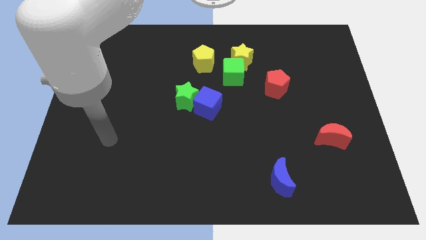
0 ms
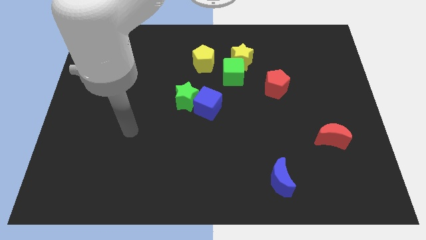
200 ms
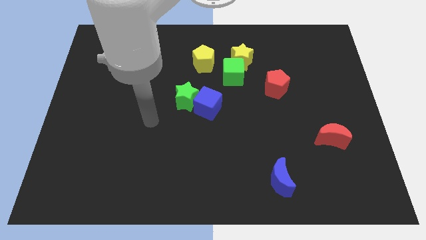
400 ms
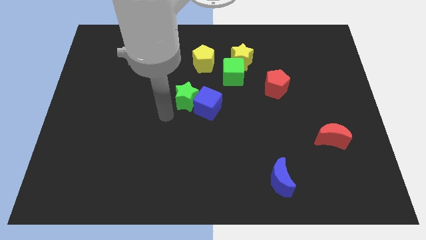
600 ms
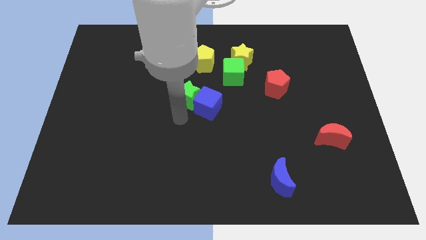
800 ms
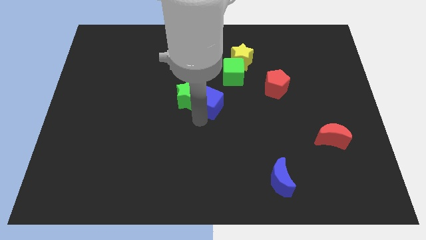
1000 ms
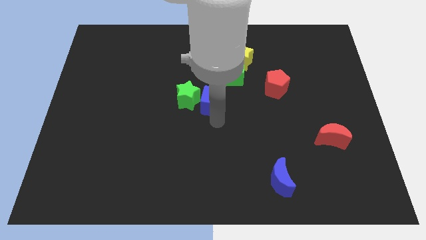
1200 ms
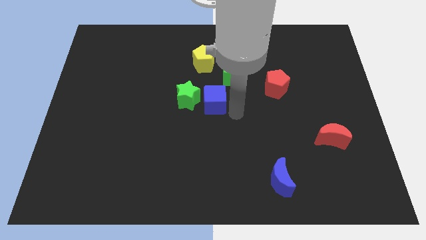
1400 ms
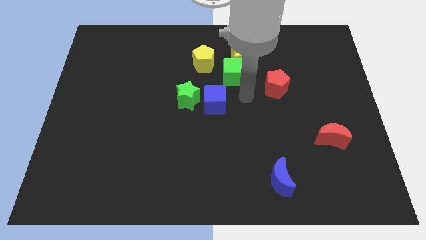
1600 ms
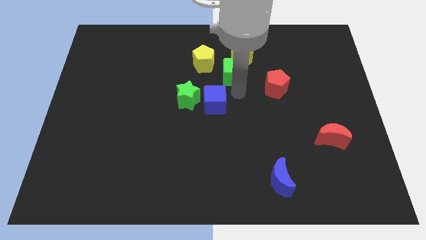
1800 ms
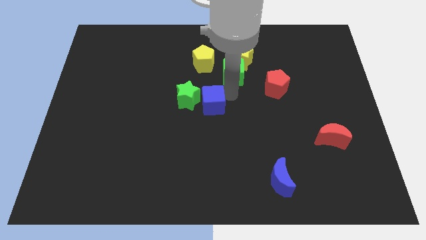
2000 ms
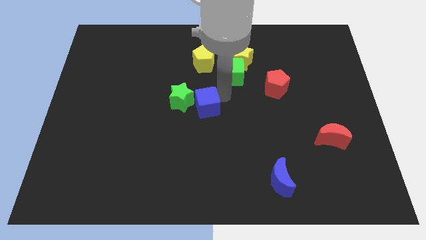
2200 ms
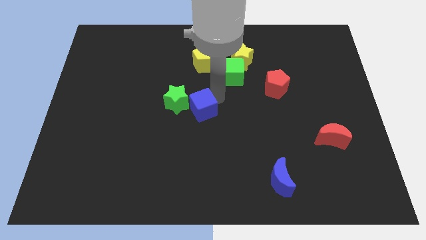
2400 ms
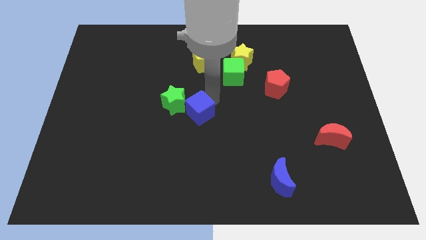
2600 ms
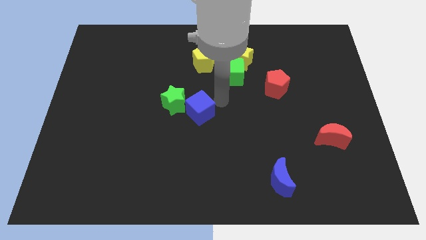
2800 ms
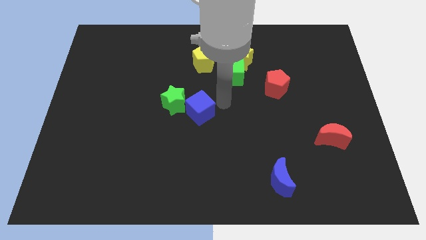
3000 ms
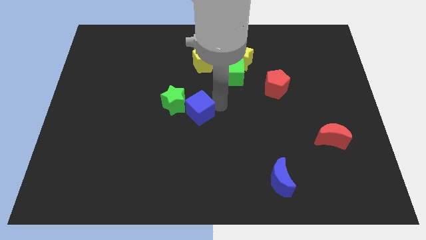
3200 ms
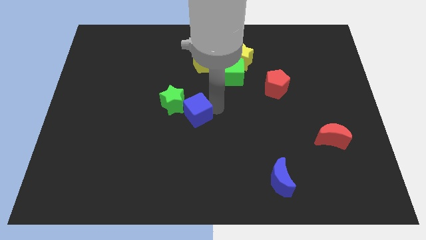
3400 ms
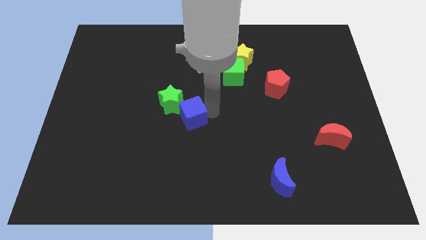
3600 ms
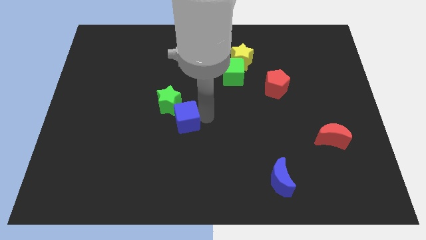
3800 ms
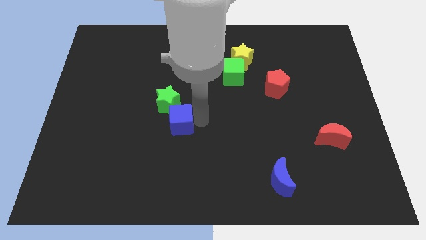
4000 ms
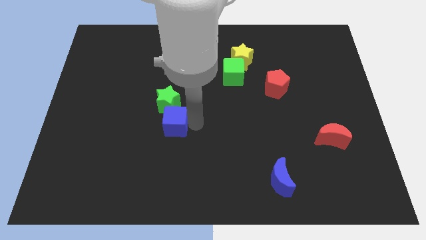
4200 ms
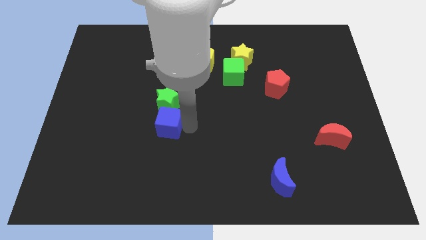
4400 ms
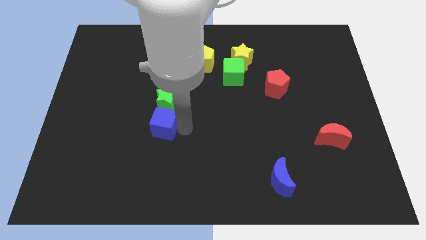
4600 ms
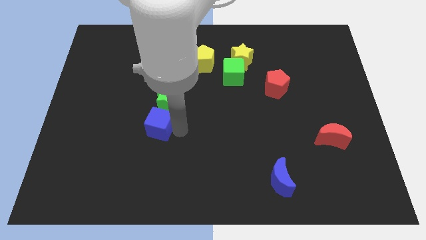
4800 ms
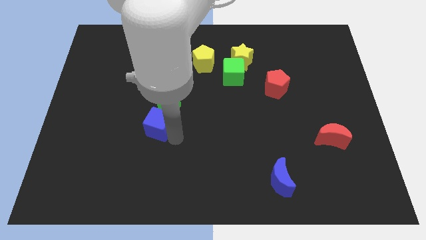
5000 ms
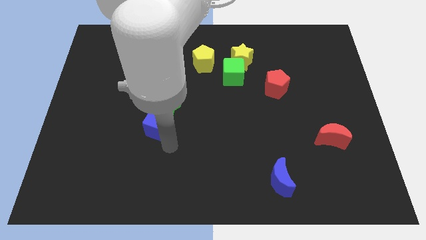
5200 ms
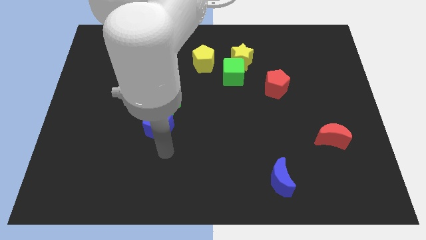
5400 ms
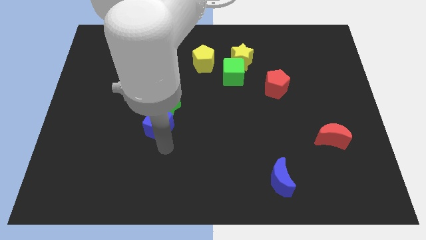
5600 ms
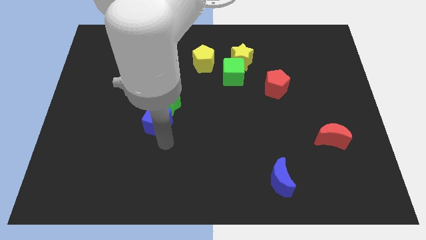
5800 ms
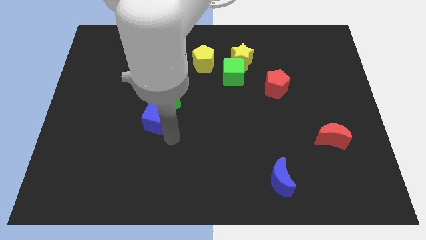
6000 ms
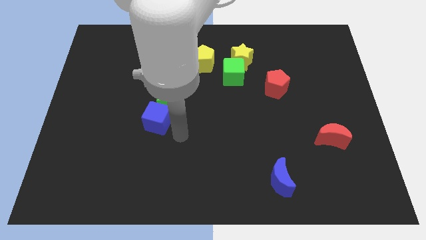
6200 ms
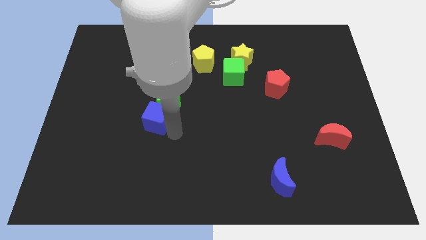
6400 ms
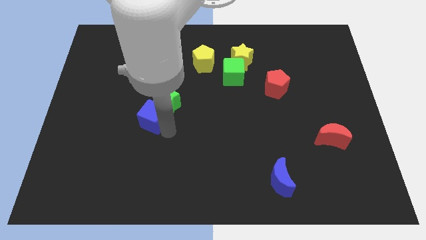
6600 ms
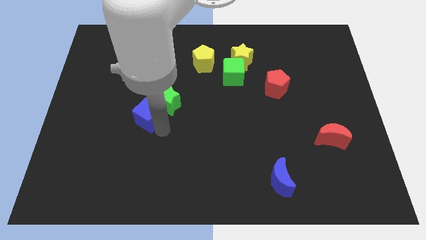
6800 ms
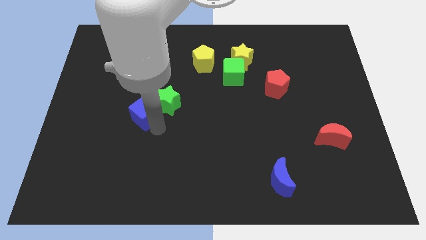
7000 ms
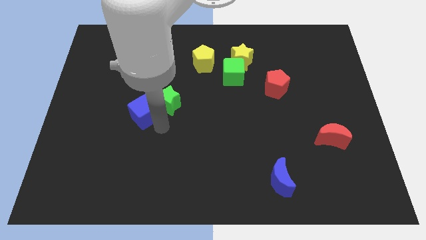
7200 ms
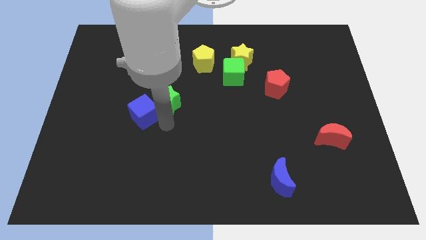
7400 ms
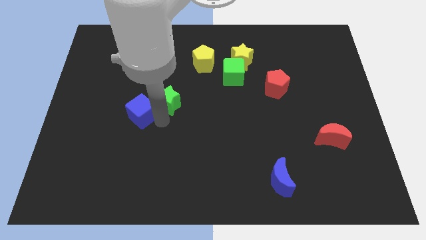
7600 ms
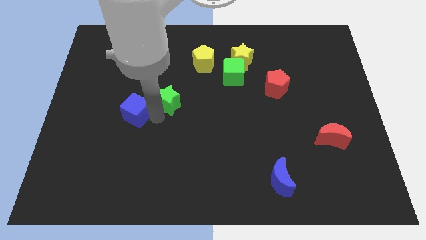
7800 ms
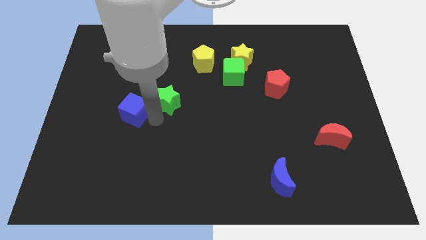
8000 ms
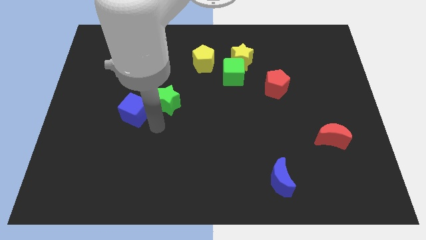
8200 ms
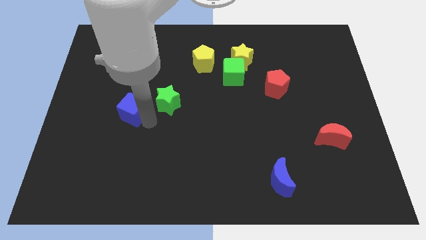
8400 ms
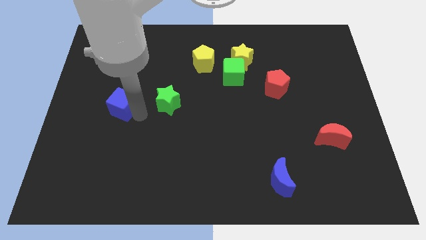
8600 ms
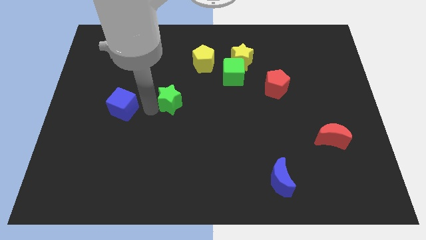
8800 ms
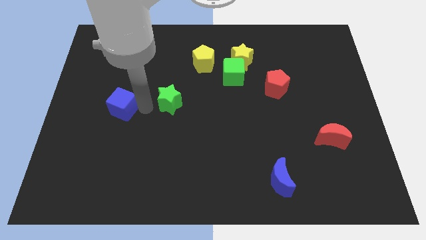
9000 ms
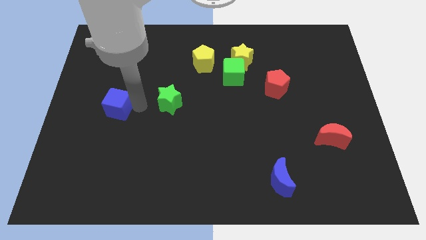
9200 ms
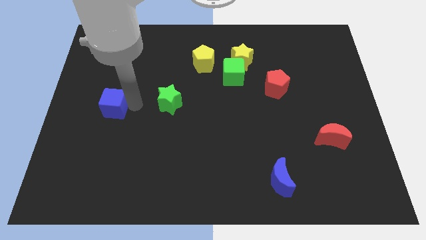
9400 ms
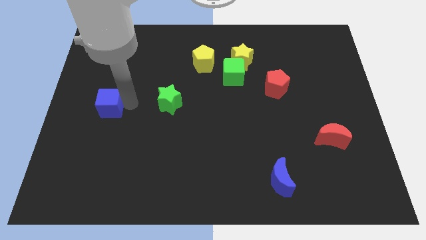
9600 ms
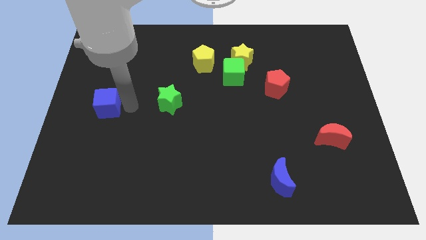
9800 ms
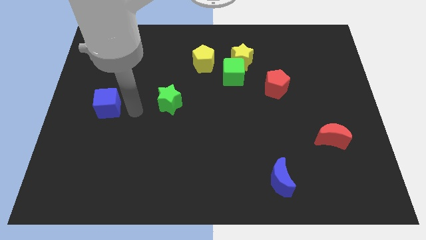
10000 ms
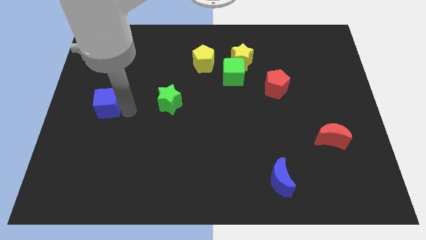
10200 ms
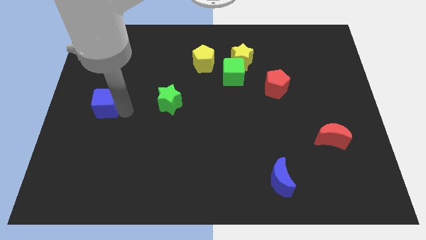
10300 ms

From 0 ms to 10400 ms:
put the blue cube to the center left

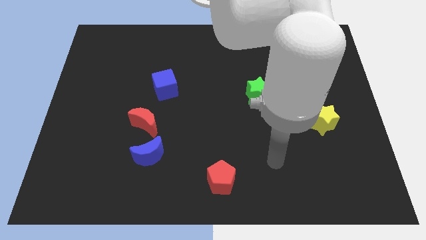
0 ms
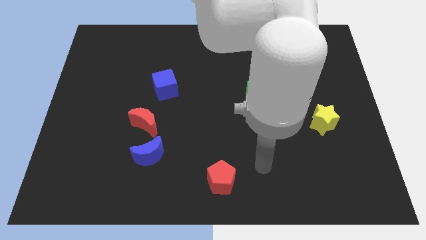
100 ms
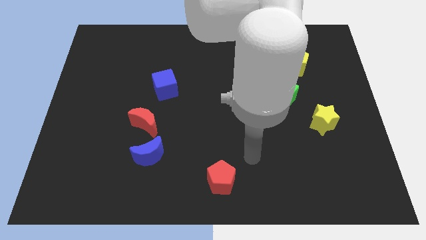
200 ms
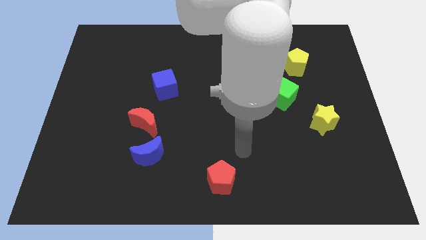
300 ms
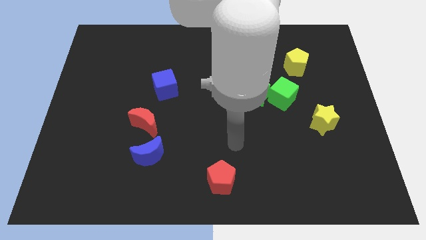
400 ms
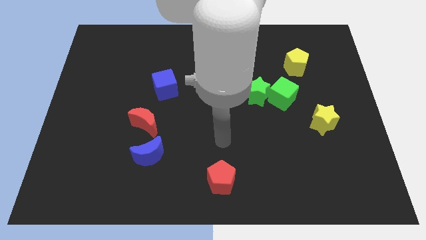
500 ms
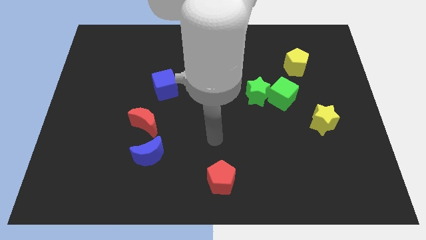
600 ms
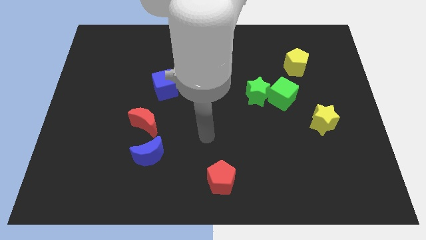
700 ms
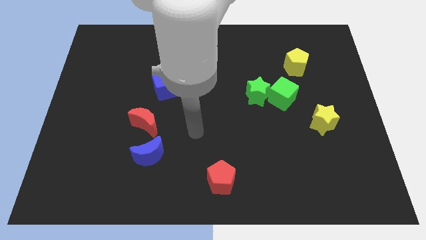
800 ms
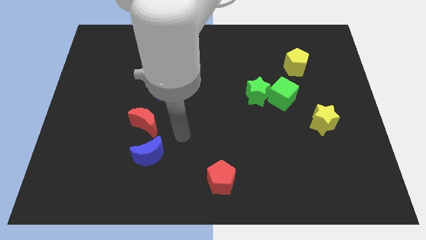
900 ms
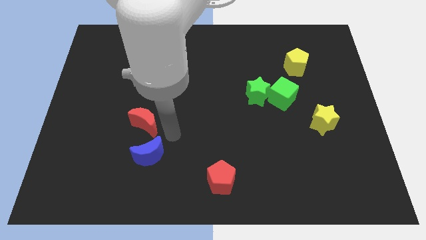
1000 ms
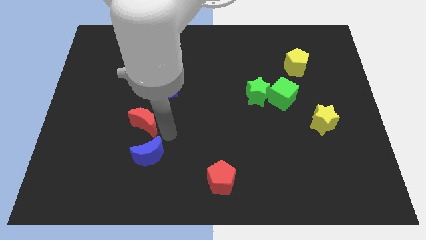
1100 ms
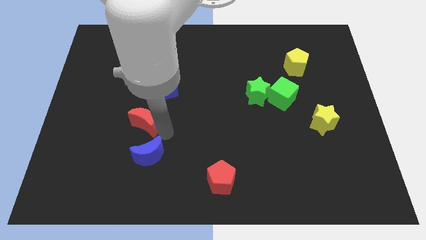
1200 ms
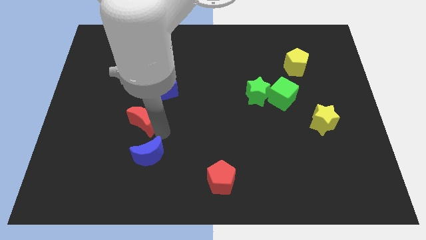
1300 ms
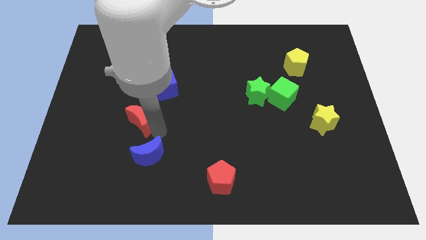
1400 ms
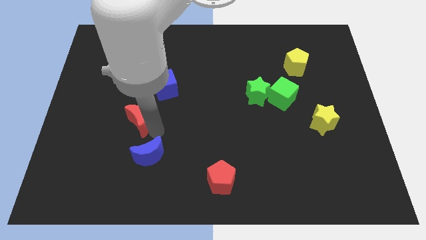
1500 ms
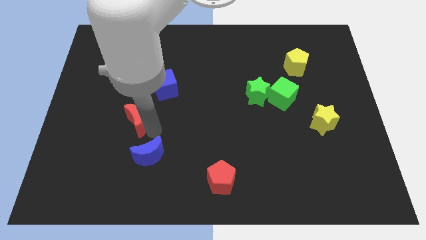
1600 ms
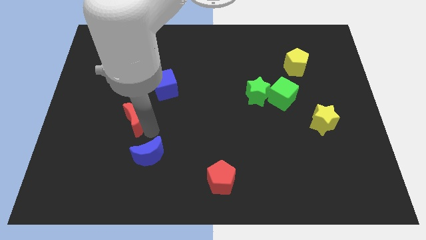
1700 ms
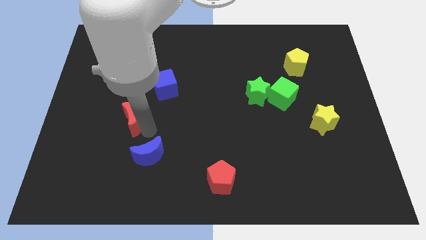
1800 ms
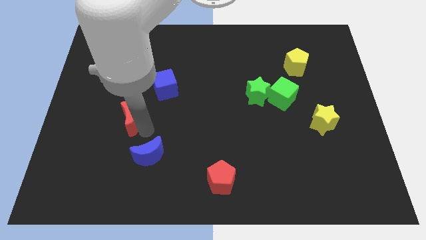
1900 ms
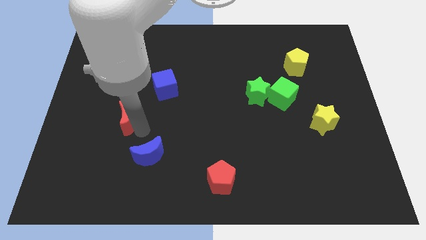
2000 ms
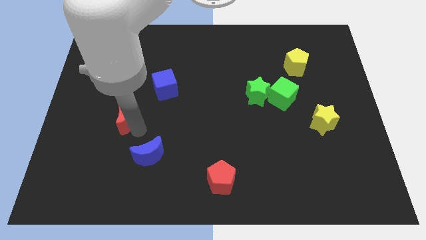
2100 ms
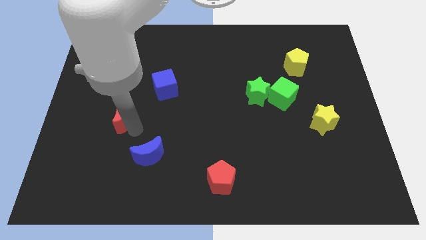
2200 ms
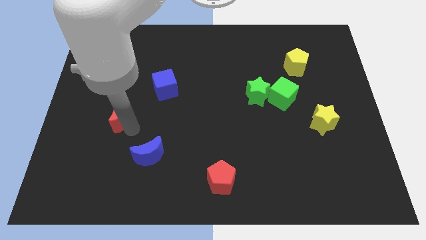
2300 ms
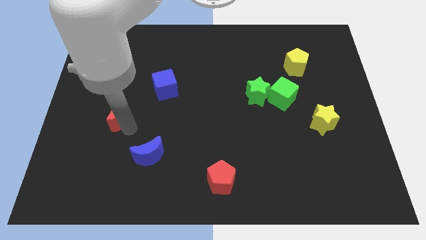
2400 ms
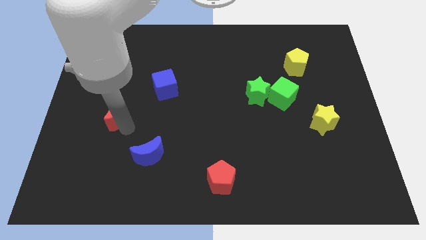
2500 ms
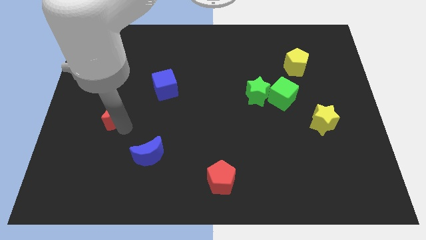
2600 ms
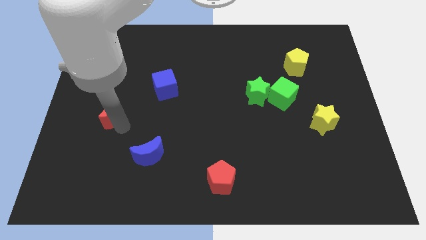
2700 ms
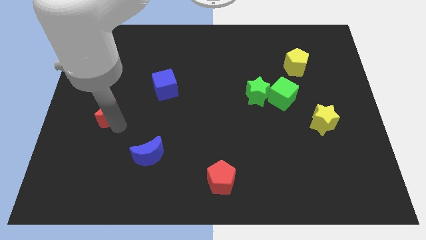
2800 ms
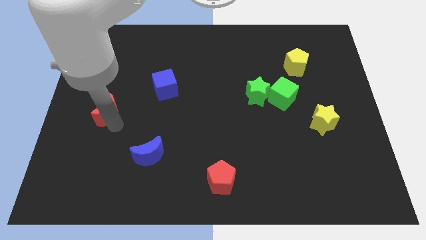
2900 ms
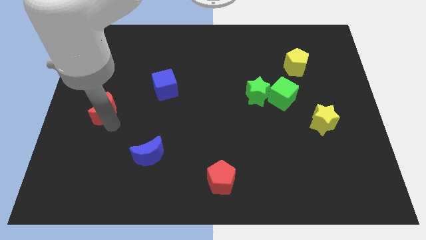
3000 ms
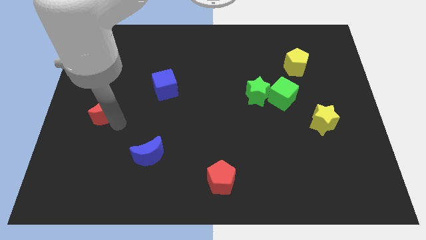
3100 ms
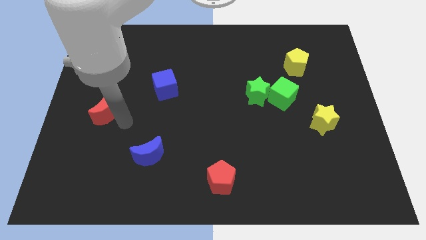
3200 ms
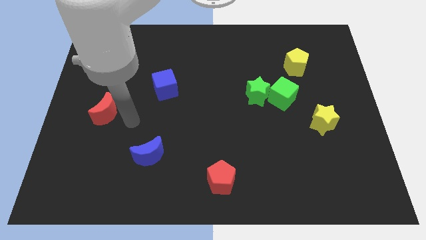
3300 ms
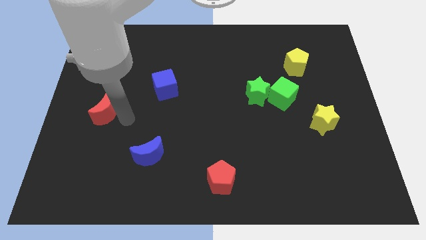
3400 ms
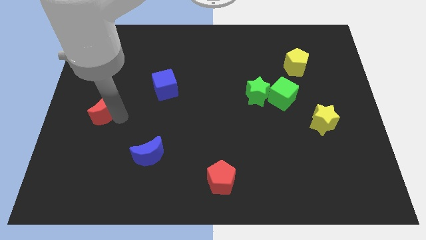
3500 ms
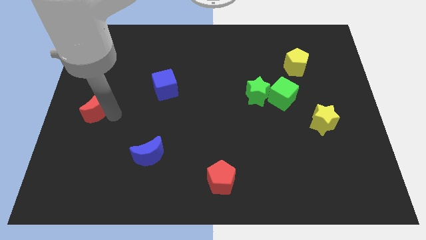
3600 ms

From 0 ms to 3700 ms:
move the red moon to the center left
